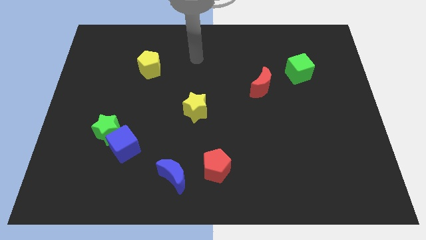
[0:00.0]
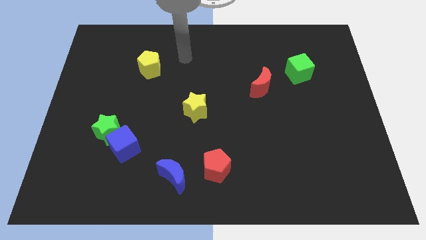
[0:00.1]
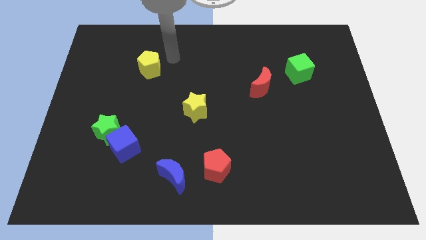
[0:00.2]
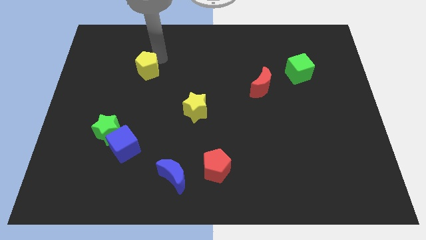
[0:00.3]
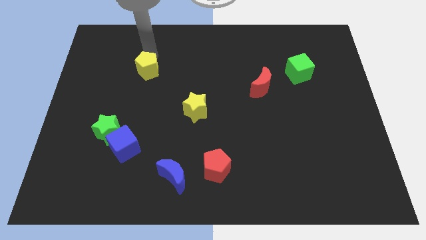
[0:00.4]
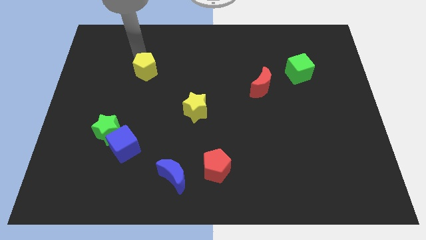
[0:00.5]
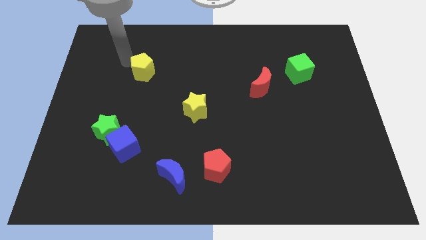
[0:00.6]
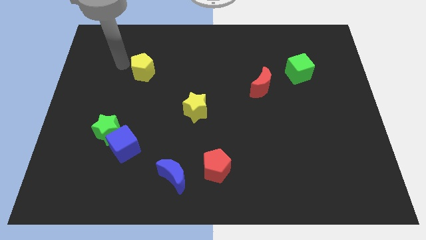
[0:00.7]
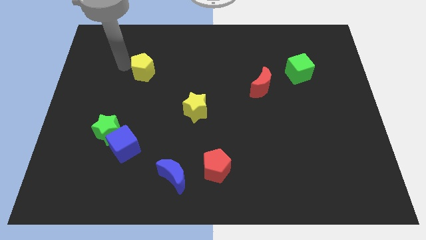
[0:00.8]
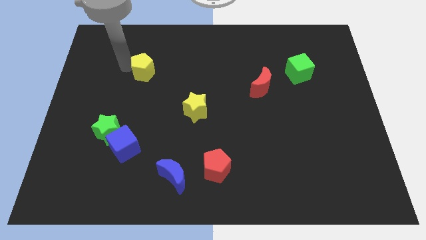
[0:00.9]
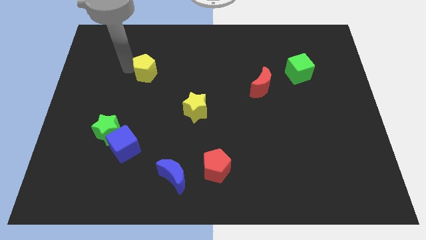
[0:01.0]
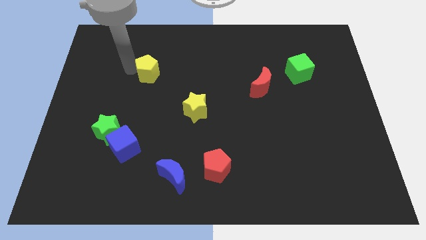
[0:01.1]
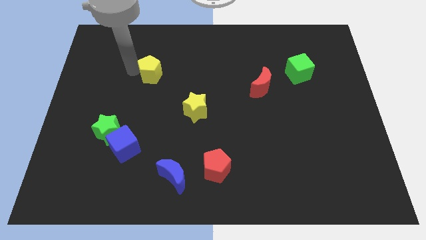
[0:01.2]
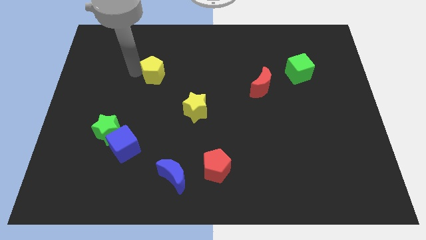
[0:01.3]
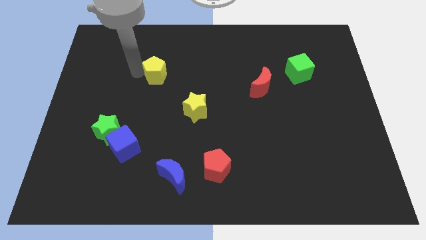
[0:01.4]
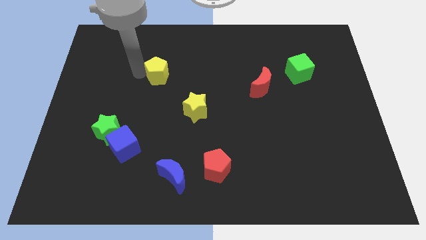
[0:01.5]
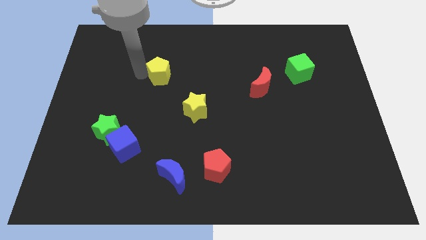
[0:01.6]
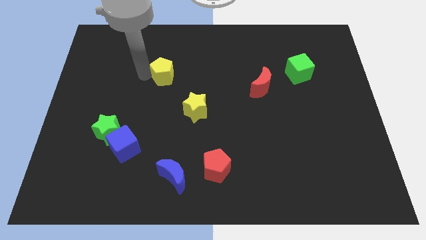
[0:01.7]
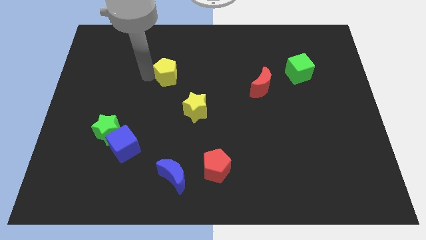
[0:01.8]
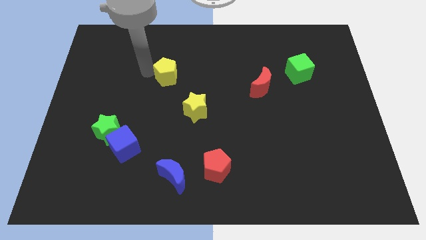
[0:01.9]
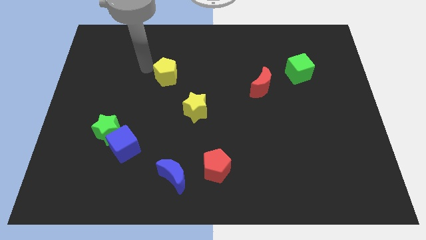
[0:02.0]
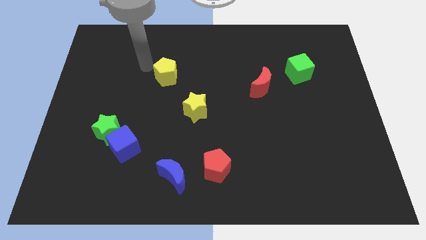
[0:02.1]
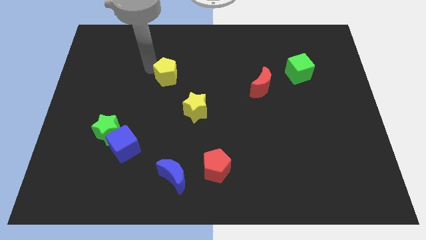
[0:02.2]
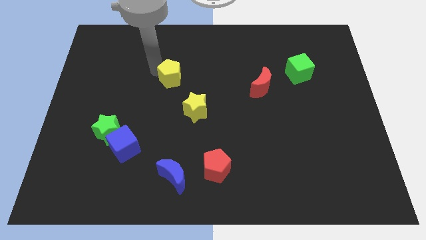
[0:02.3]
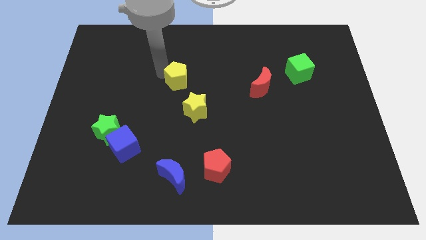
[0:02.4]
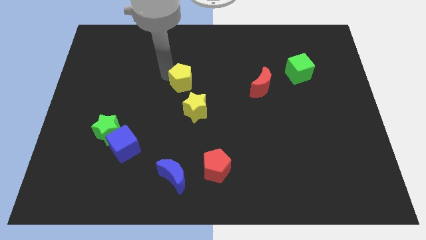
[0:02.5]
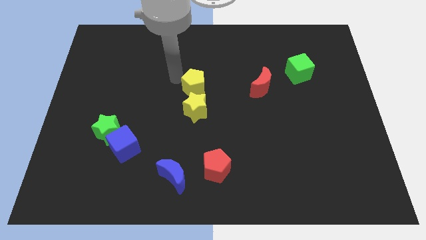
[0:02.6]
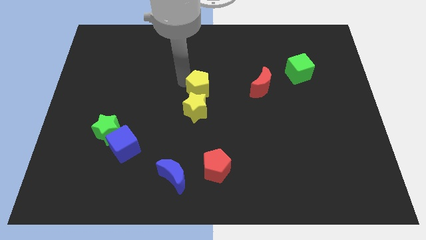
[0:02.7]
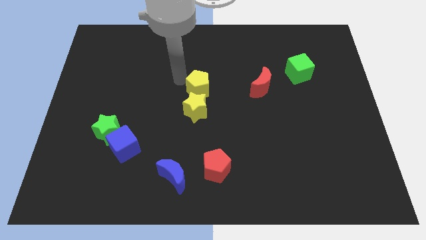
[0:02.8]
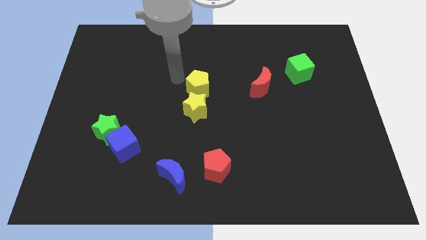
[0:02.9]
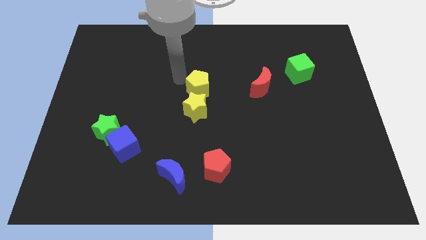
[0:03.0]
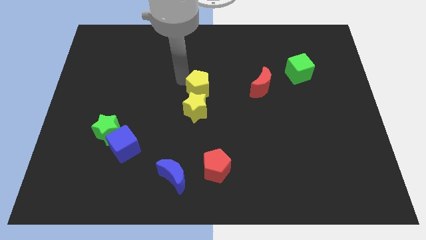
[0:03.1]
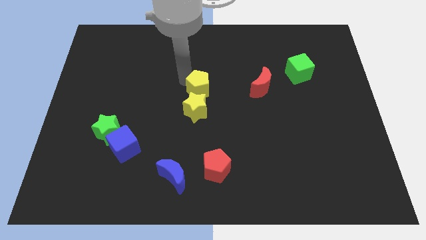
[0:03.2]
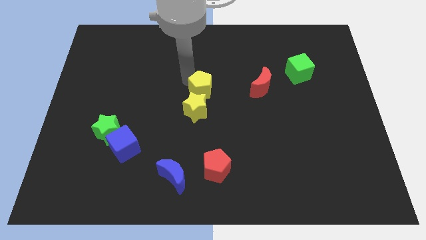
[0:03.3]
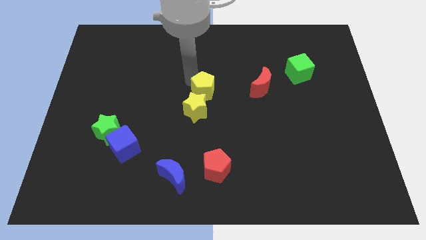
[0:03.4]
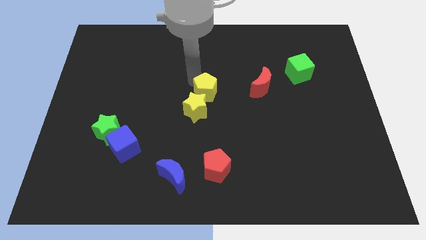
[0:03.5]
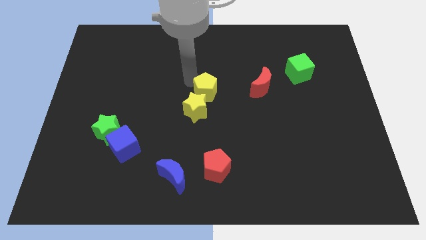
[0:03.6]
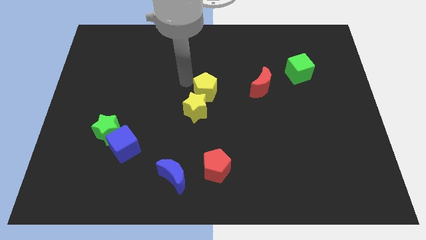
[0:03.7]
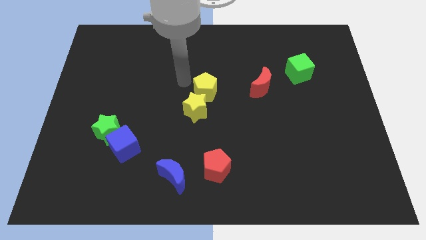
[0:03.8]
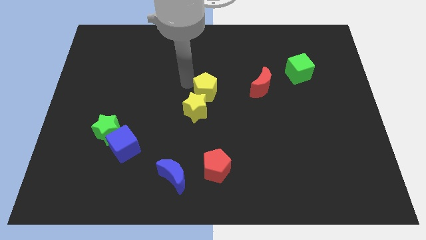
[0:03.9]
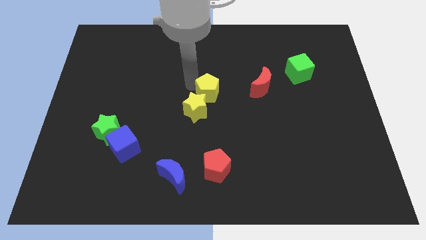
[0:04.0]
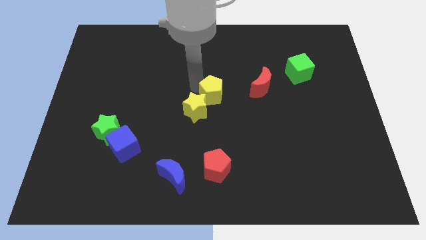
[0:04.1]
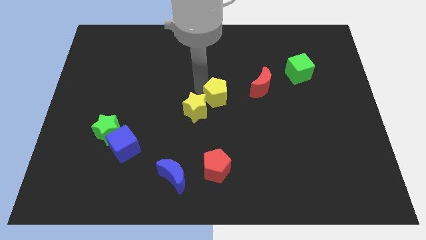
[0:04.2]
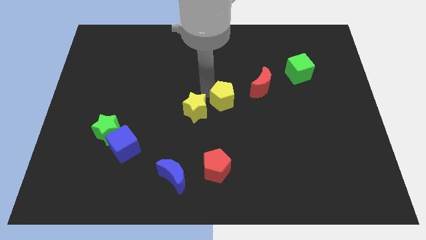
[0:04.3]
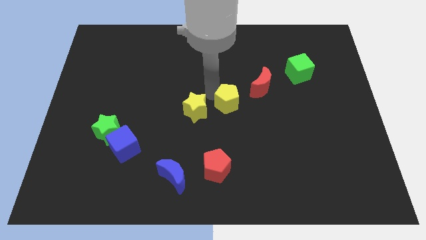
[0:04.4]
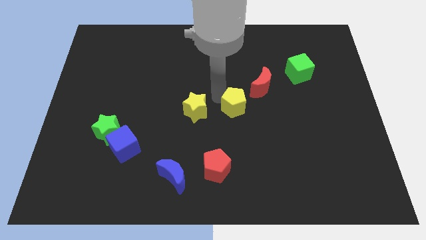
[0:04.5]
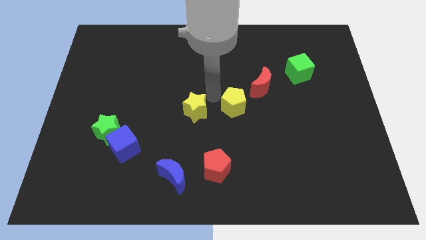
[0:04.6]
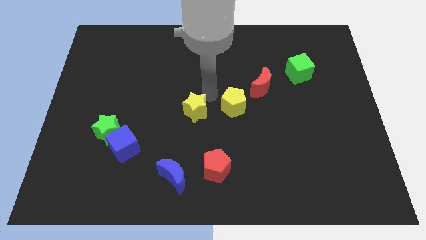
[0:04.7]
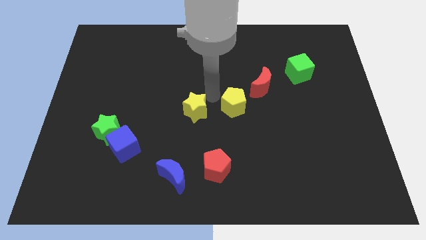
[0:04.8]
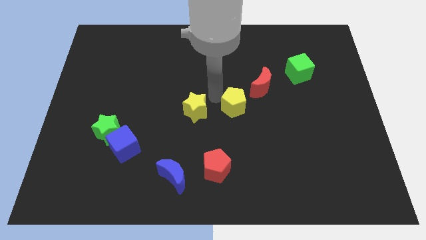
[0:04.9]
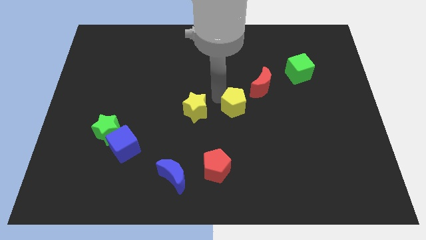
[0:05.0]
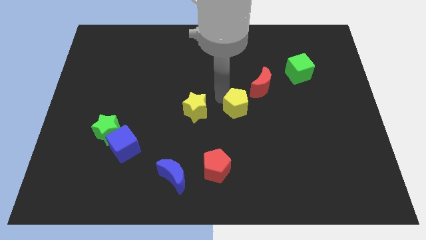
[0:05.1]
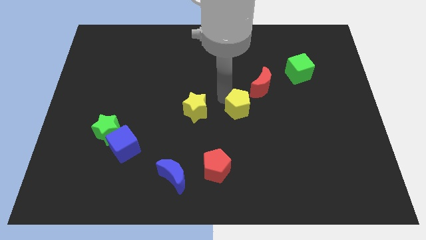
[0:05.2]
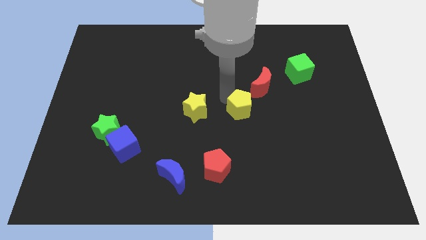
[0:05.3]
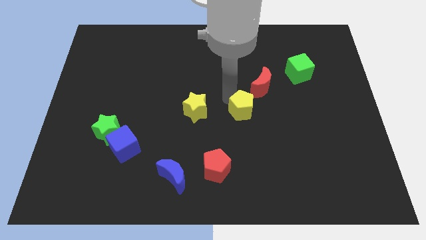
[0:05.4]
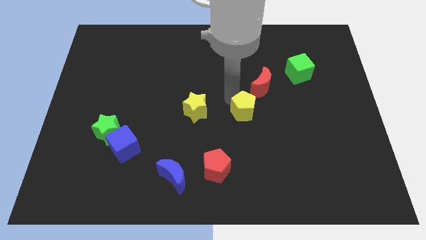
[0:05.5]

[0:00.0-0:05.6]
move the yellow pentagon below the red moon
